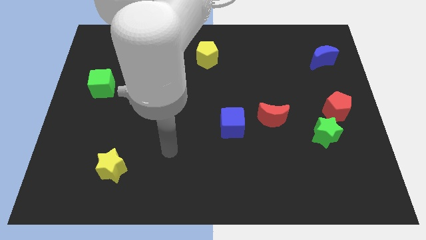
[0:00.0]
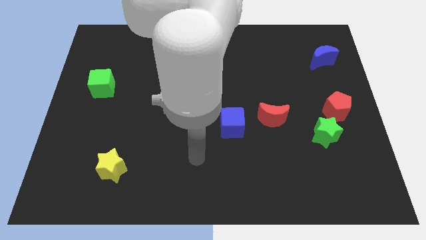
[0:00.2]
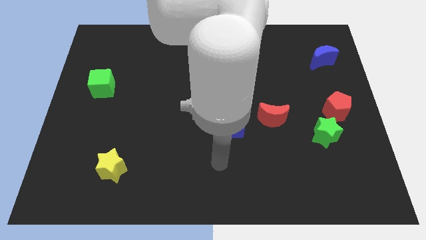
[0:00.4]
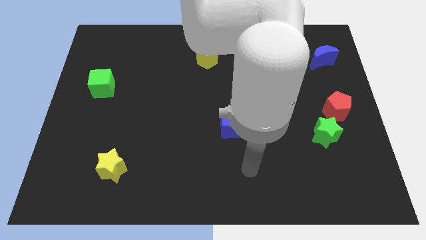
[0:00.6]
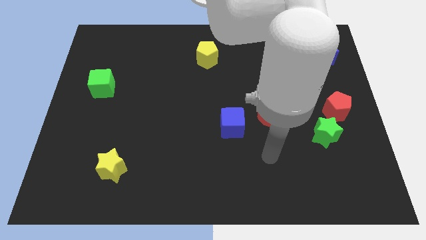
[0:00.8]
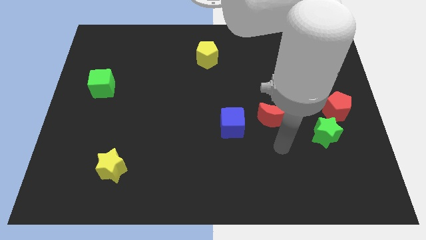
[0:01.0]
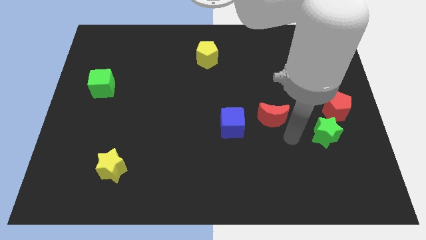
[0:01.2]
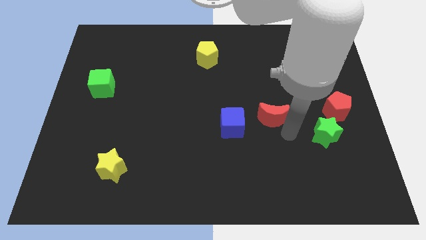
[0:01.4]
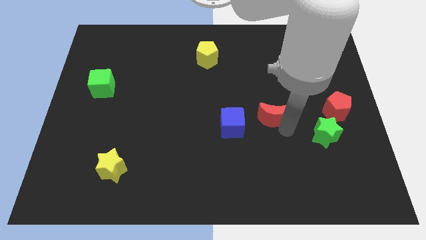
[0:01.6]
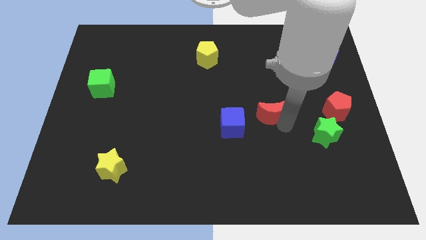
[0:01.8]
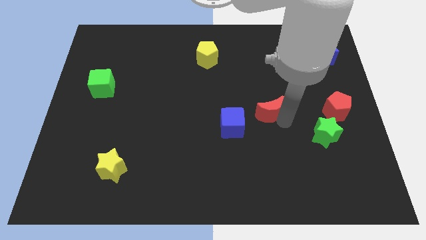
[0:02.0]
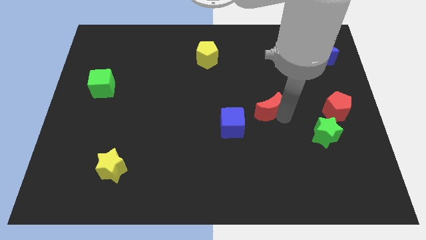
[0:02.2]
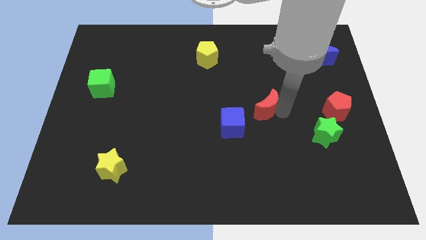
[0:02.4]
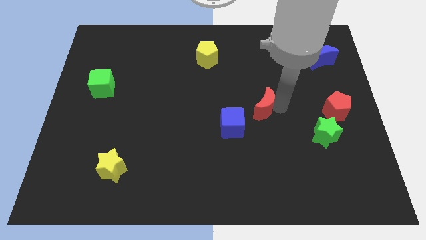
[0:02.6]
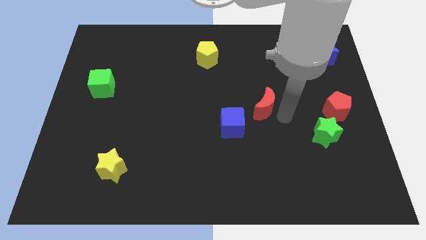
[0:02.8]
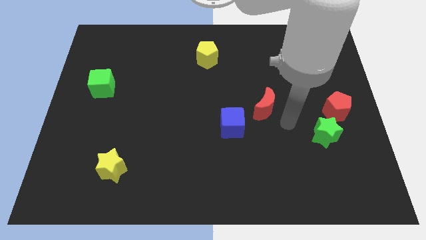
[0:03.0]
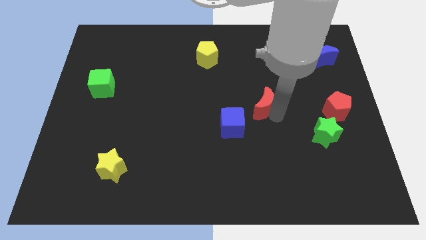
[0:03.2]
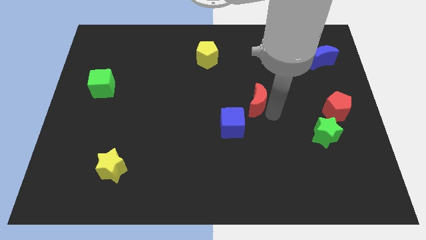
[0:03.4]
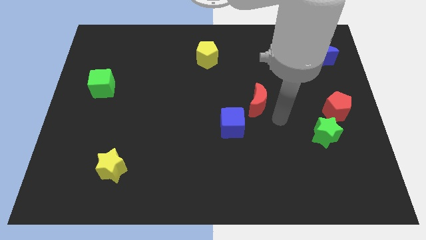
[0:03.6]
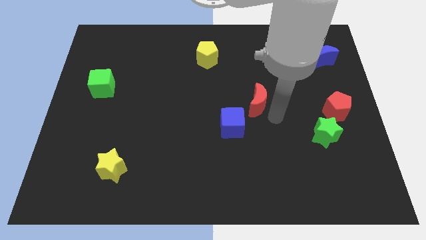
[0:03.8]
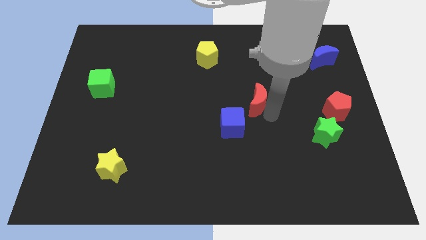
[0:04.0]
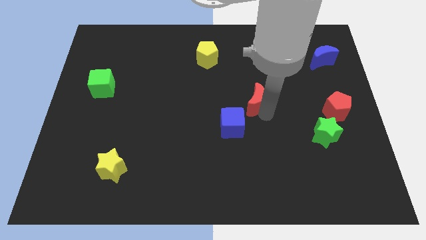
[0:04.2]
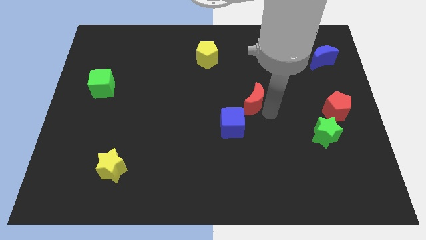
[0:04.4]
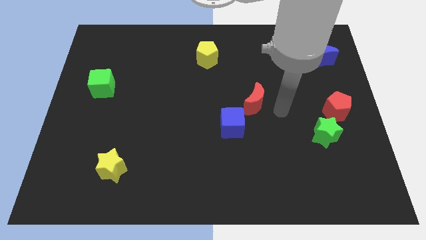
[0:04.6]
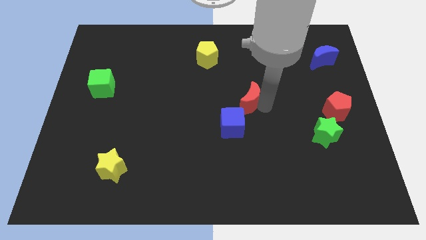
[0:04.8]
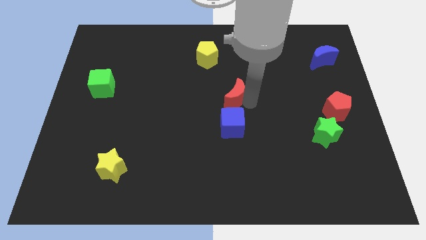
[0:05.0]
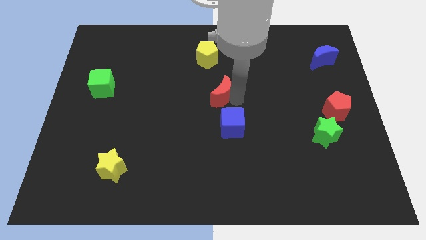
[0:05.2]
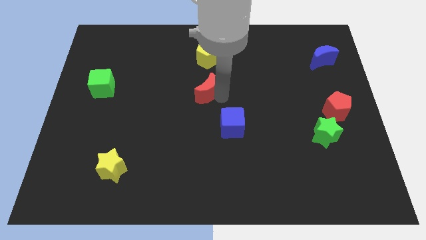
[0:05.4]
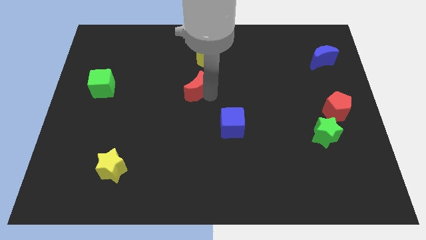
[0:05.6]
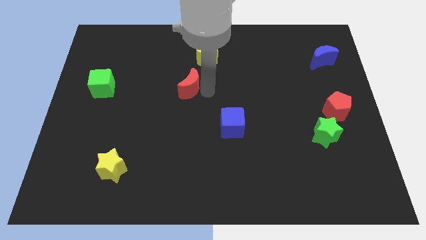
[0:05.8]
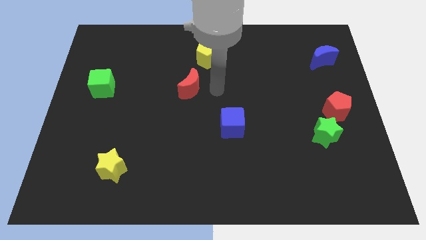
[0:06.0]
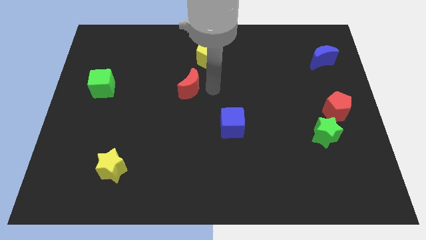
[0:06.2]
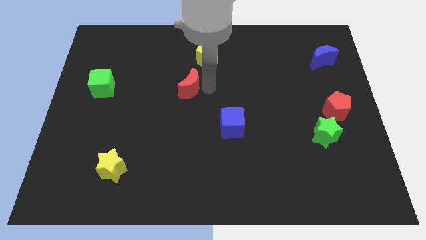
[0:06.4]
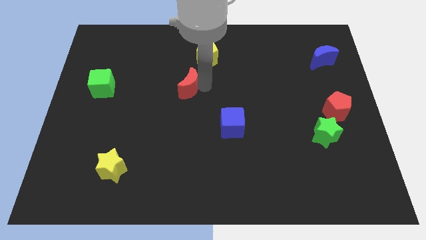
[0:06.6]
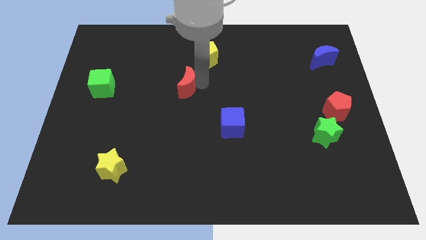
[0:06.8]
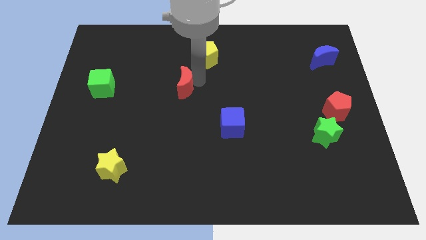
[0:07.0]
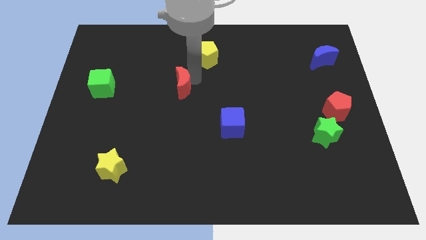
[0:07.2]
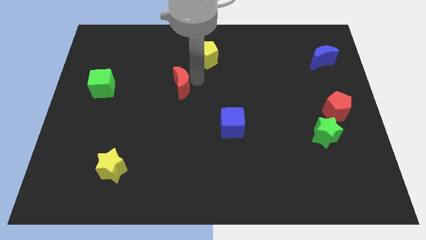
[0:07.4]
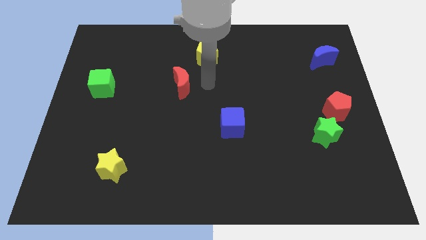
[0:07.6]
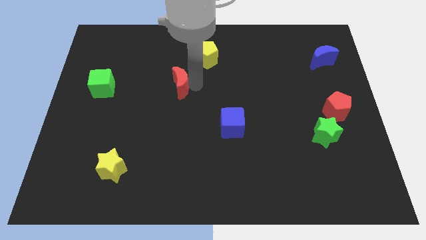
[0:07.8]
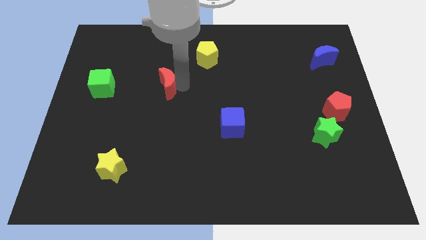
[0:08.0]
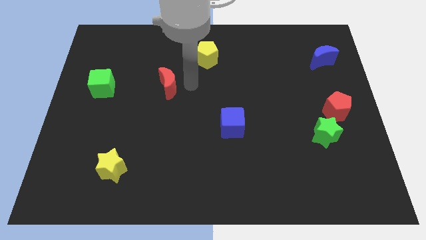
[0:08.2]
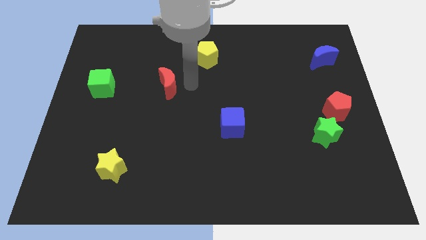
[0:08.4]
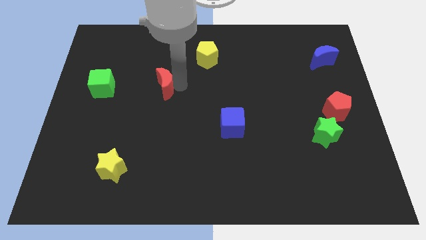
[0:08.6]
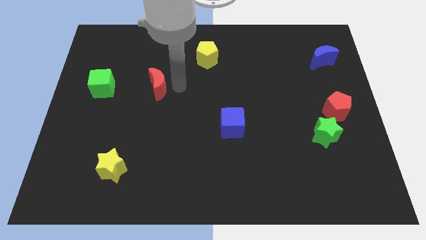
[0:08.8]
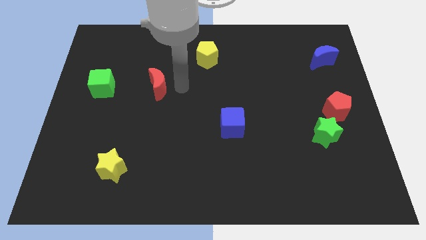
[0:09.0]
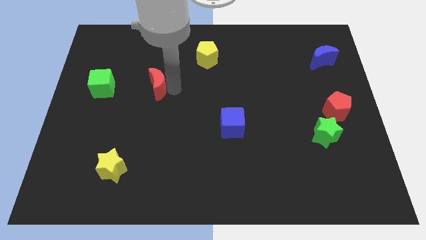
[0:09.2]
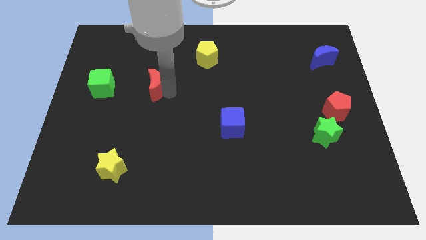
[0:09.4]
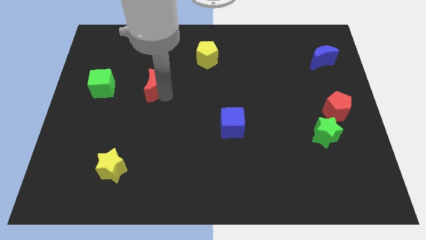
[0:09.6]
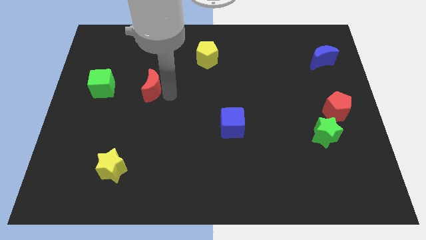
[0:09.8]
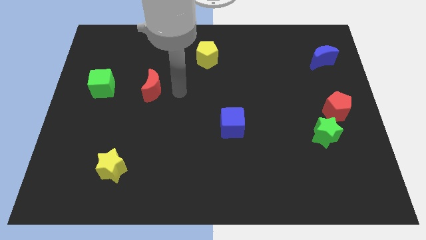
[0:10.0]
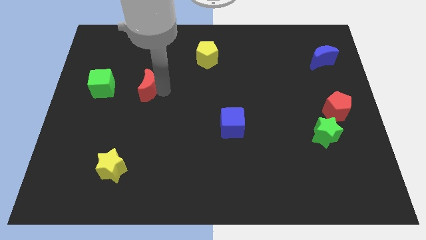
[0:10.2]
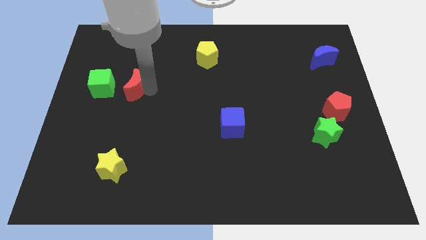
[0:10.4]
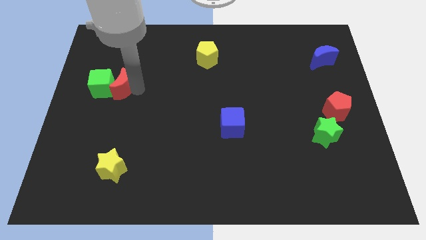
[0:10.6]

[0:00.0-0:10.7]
put the red moon to the green cube

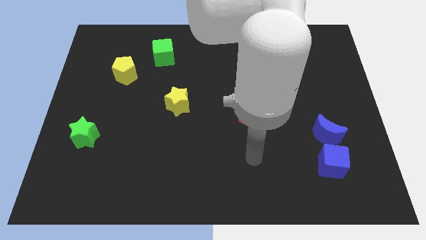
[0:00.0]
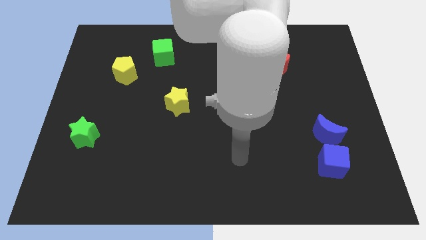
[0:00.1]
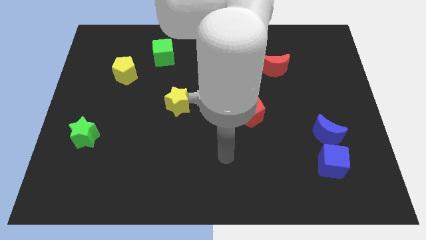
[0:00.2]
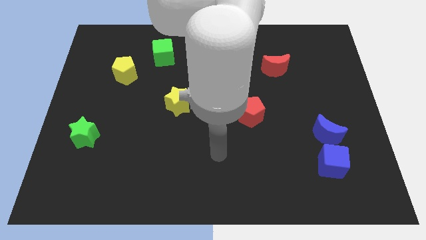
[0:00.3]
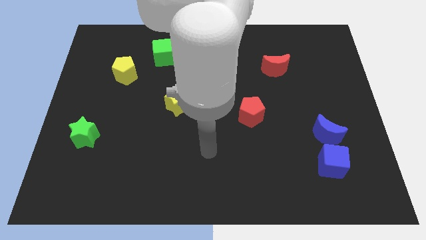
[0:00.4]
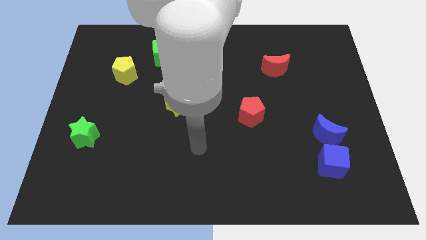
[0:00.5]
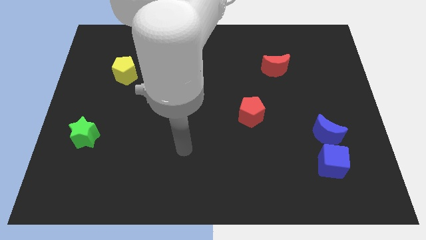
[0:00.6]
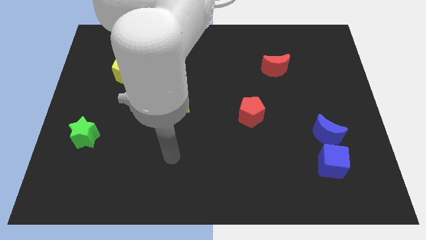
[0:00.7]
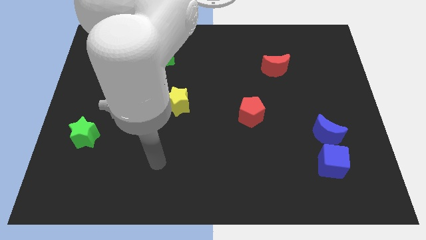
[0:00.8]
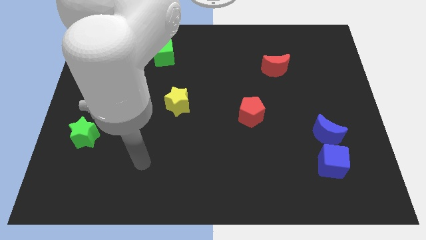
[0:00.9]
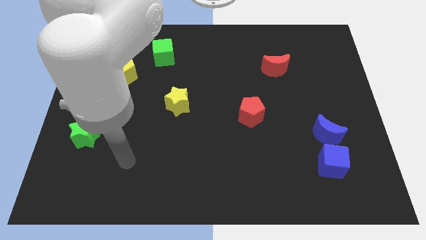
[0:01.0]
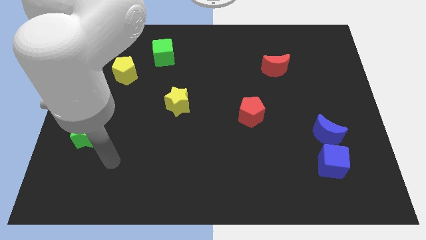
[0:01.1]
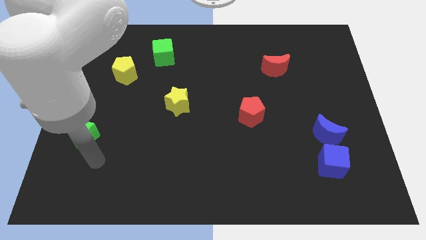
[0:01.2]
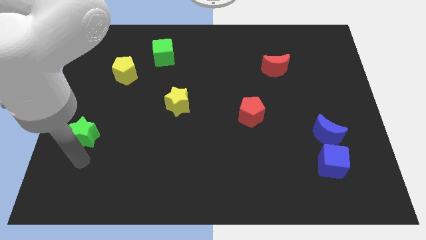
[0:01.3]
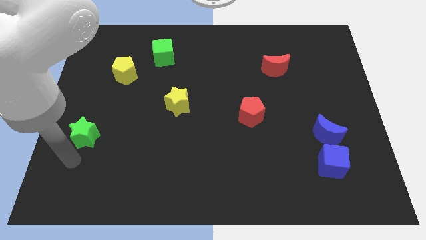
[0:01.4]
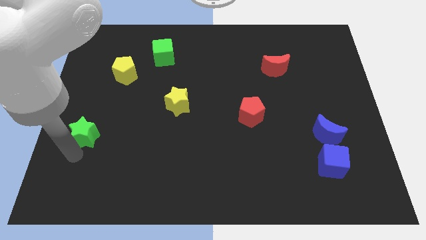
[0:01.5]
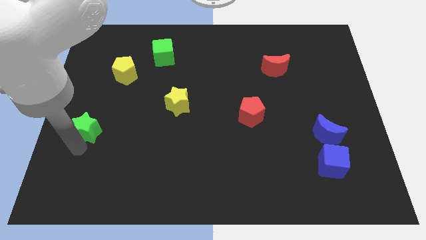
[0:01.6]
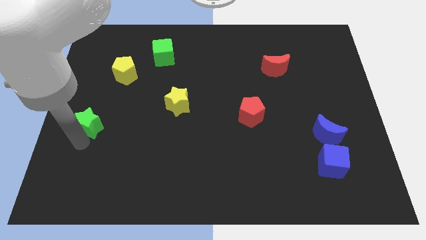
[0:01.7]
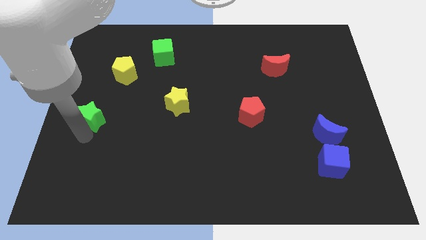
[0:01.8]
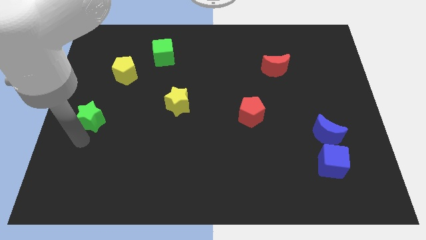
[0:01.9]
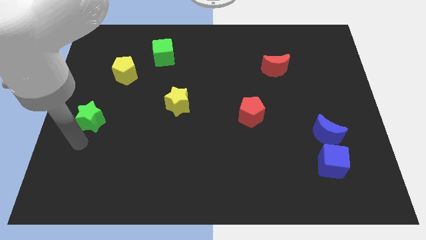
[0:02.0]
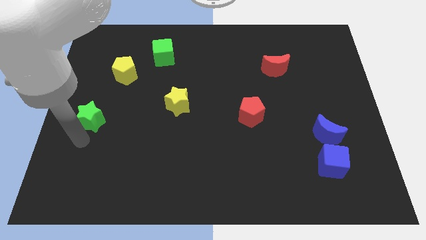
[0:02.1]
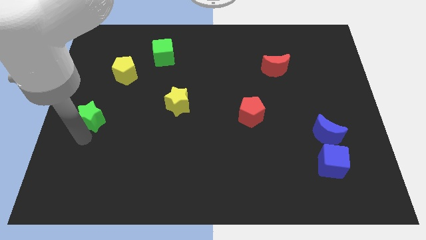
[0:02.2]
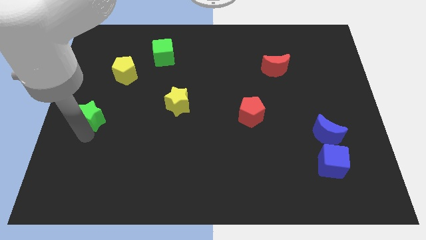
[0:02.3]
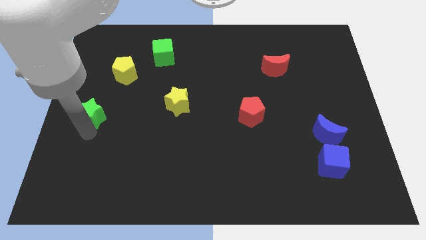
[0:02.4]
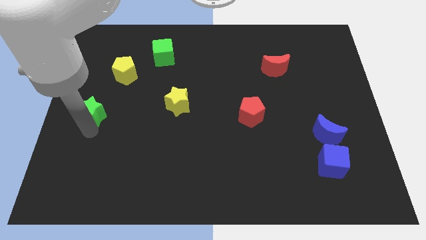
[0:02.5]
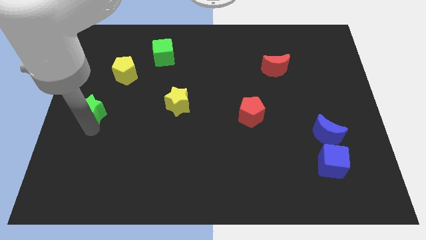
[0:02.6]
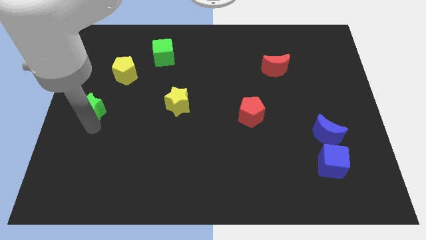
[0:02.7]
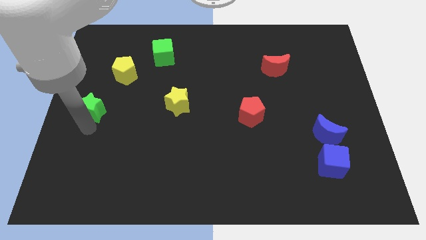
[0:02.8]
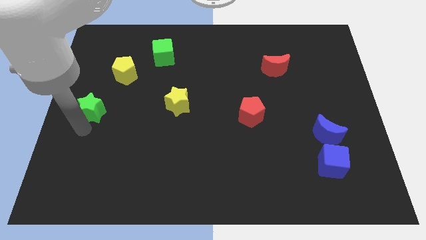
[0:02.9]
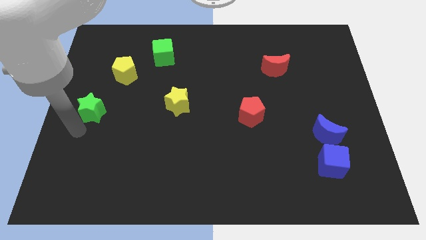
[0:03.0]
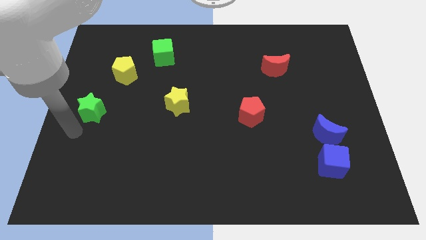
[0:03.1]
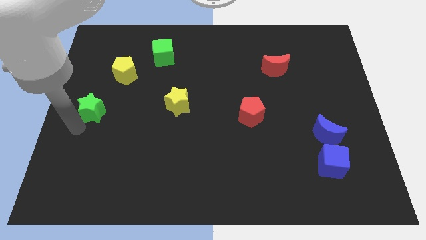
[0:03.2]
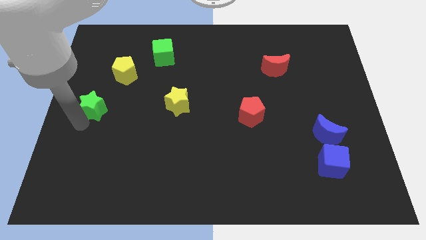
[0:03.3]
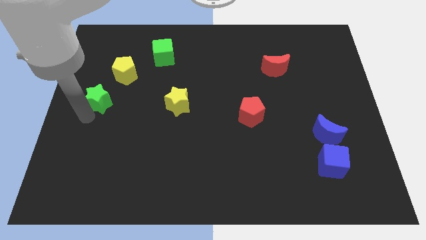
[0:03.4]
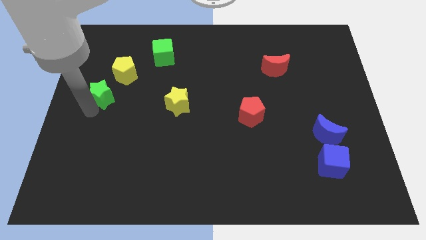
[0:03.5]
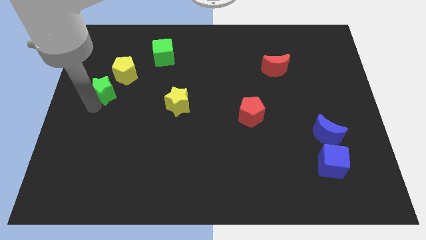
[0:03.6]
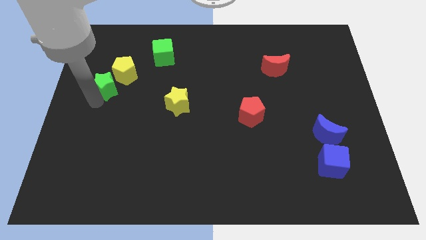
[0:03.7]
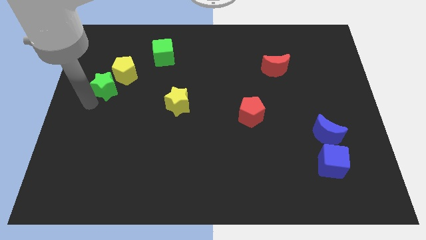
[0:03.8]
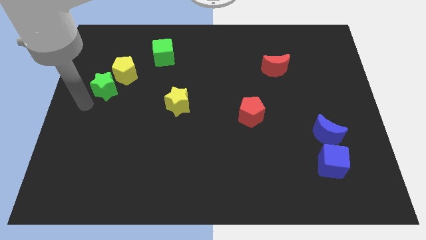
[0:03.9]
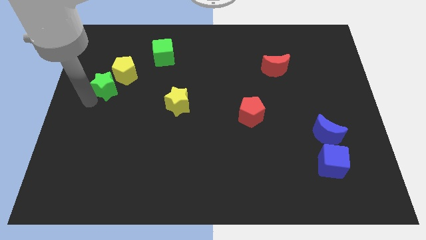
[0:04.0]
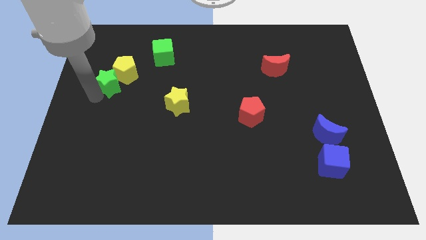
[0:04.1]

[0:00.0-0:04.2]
put the green star close to the yellow pentagon
